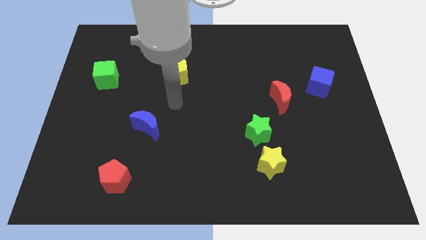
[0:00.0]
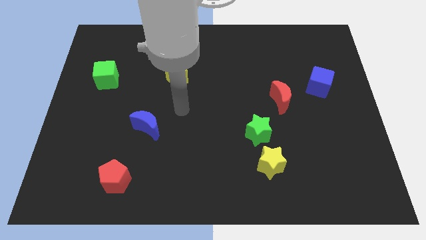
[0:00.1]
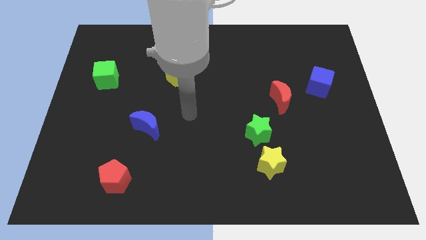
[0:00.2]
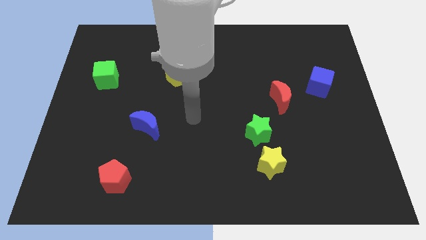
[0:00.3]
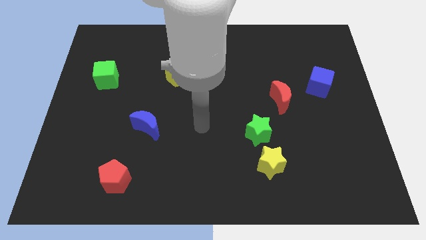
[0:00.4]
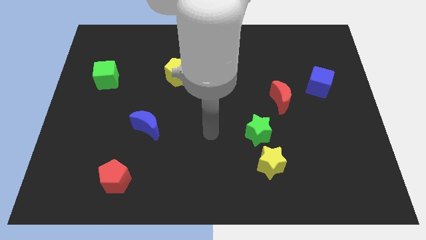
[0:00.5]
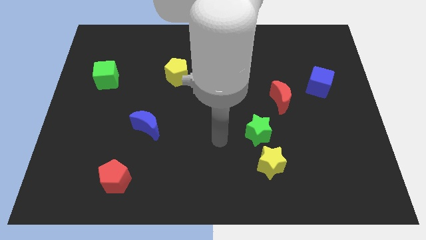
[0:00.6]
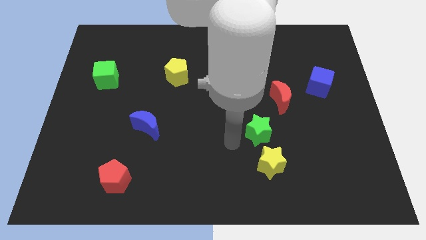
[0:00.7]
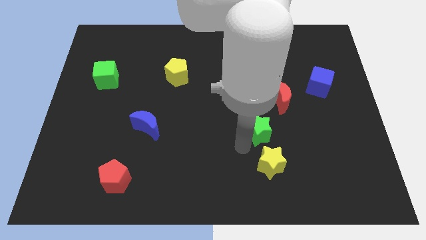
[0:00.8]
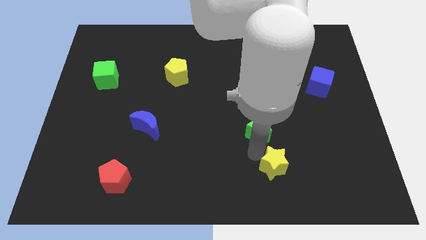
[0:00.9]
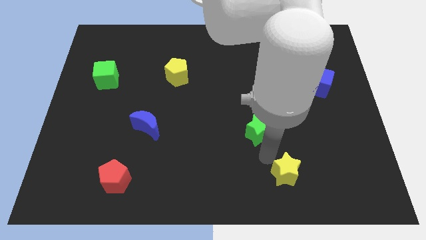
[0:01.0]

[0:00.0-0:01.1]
separate the green star from the yellow star

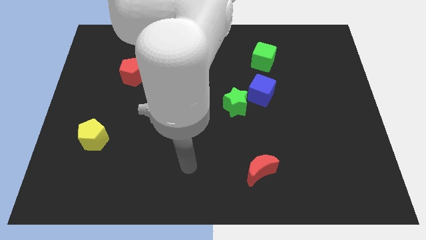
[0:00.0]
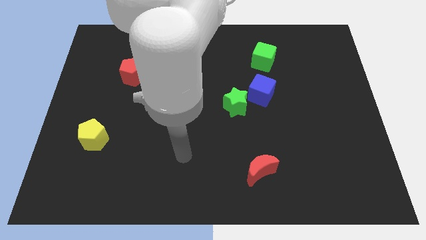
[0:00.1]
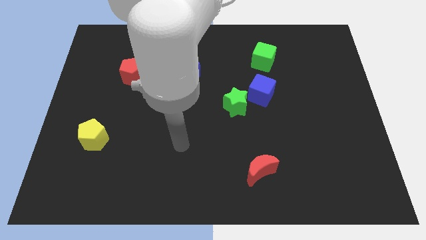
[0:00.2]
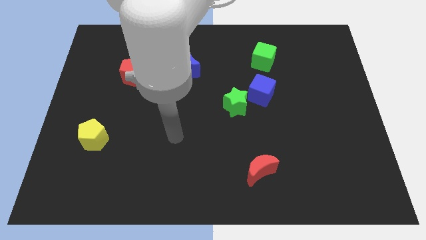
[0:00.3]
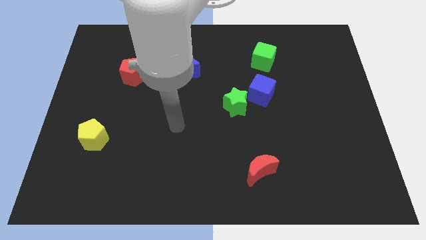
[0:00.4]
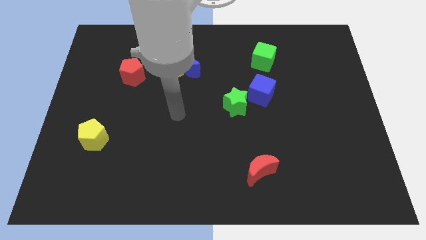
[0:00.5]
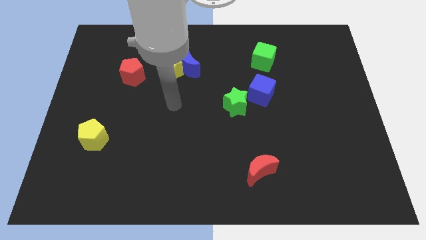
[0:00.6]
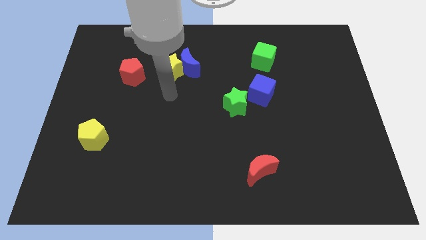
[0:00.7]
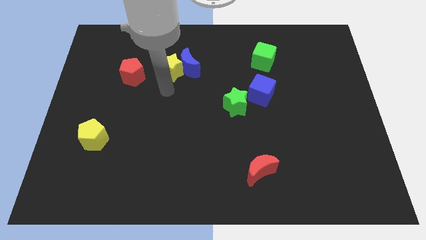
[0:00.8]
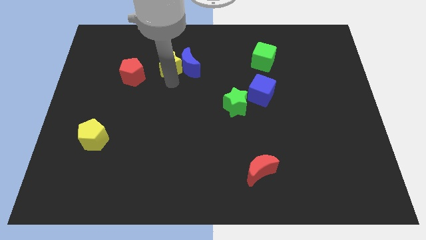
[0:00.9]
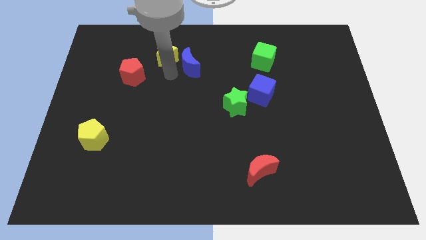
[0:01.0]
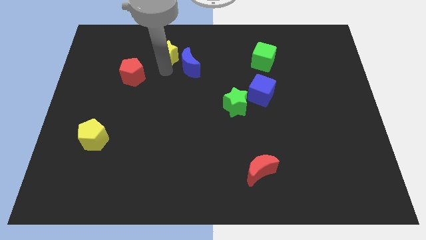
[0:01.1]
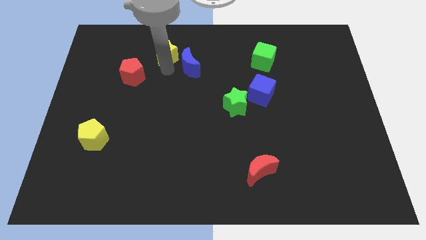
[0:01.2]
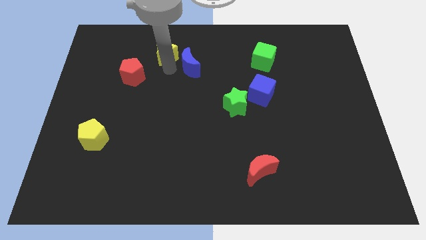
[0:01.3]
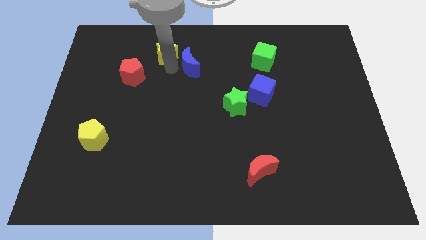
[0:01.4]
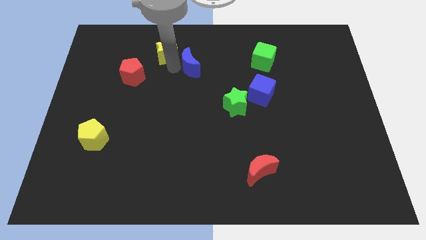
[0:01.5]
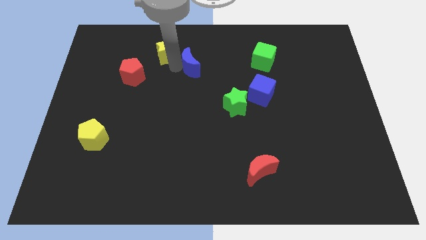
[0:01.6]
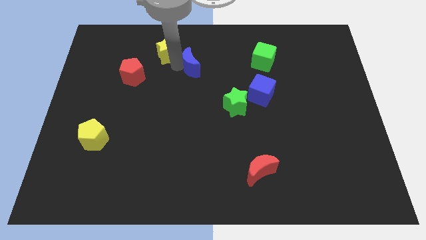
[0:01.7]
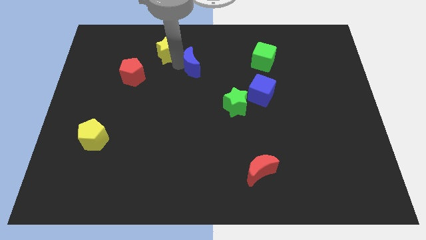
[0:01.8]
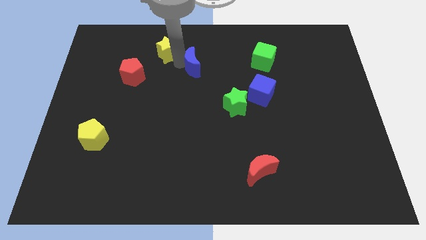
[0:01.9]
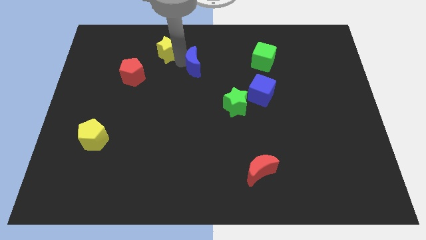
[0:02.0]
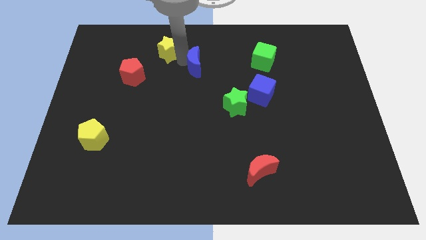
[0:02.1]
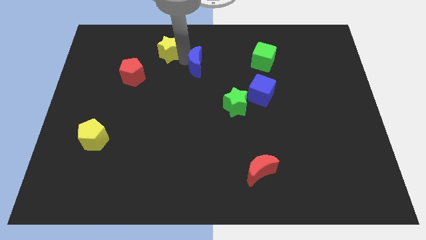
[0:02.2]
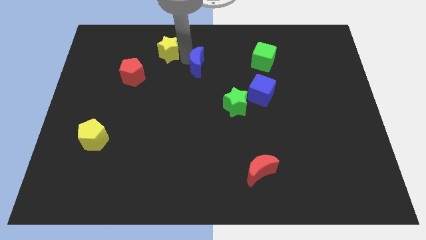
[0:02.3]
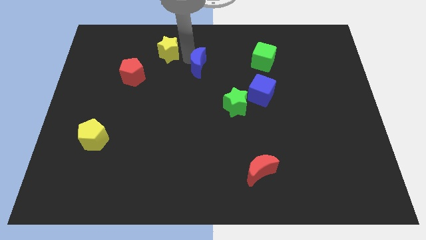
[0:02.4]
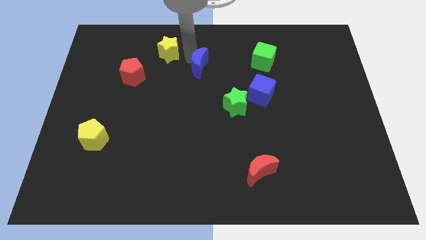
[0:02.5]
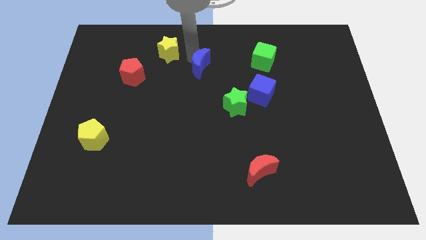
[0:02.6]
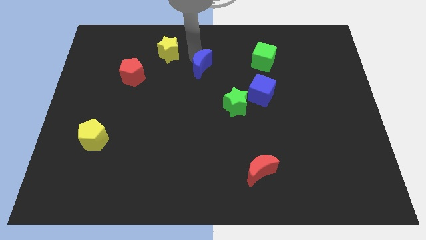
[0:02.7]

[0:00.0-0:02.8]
pull the blue moon apart from the yellow star

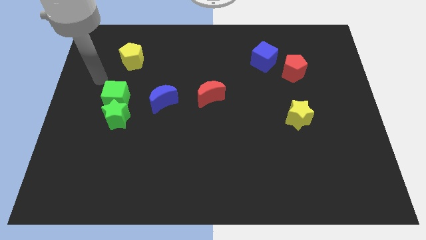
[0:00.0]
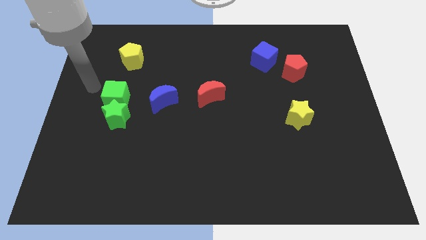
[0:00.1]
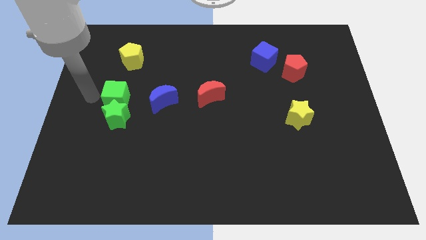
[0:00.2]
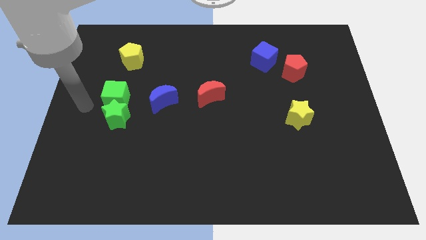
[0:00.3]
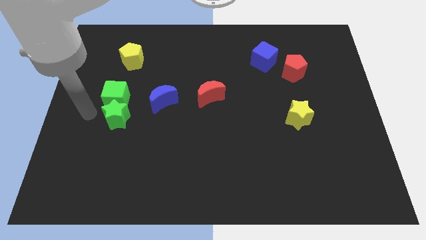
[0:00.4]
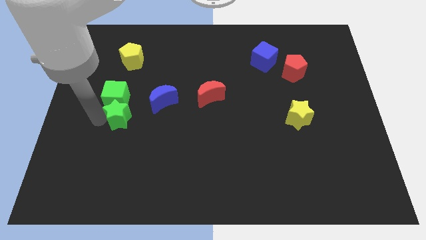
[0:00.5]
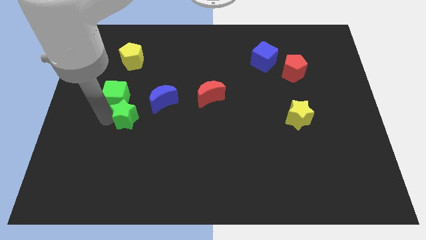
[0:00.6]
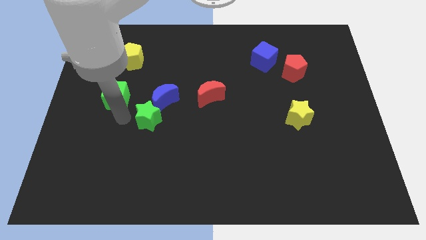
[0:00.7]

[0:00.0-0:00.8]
pull the green cube apart from the green star

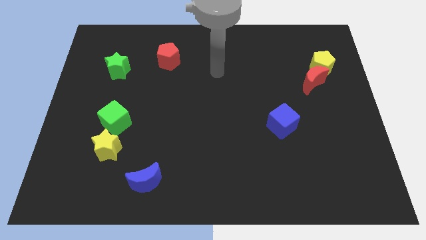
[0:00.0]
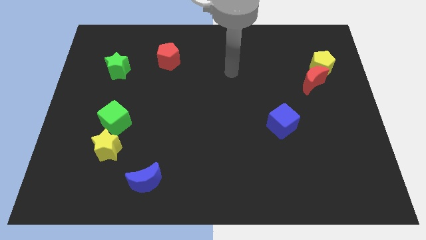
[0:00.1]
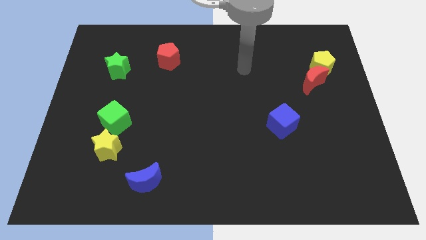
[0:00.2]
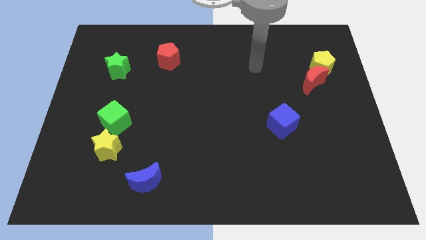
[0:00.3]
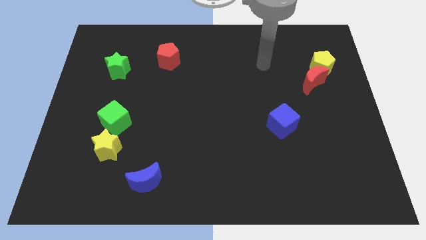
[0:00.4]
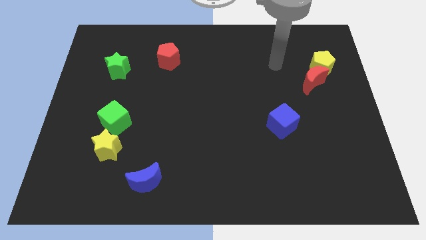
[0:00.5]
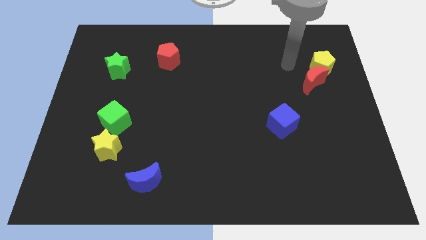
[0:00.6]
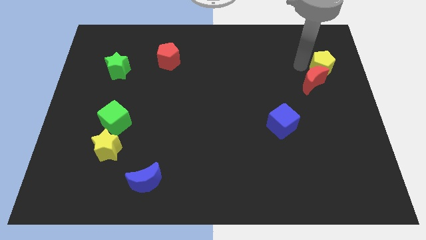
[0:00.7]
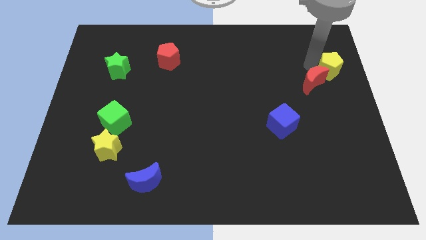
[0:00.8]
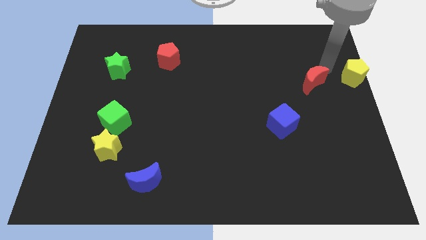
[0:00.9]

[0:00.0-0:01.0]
separate the red moon from the yellow pentagon

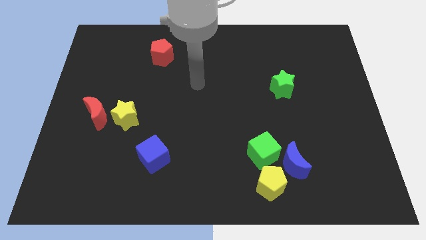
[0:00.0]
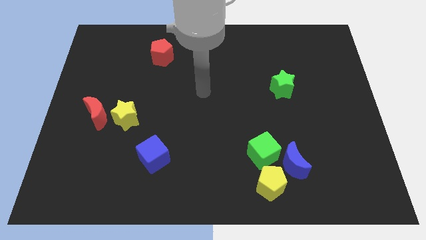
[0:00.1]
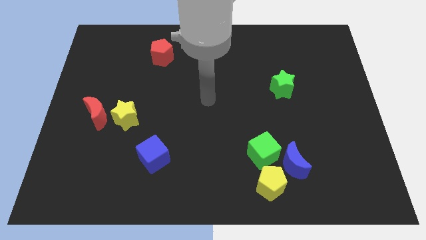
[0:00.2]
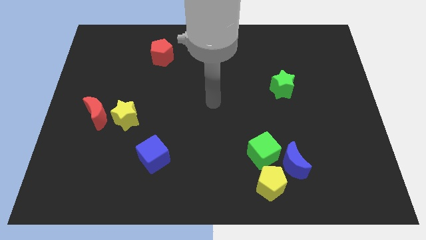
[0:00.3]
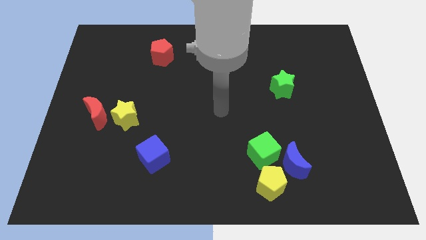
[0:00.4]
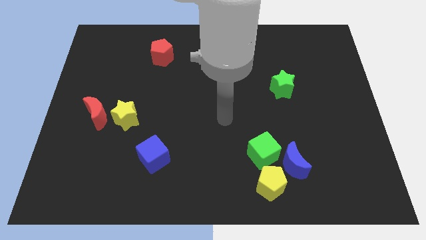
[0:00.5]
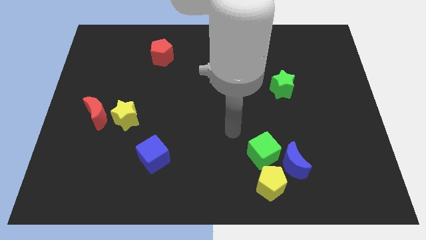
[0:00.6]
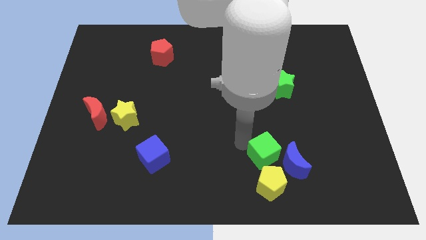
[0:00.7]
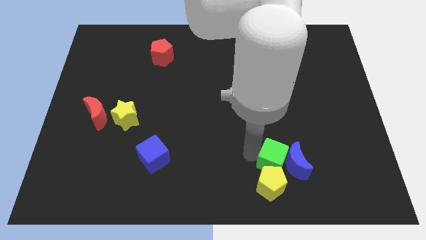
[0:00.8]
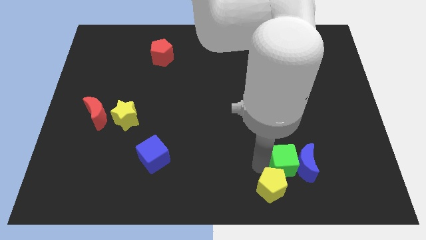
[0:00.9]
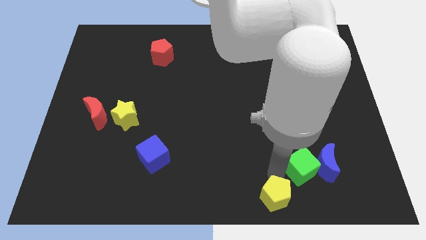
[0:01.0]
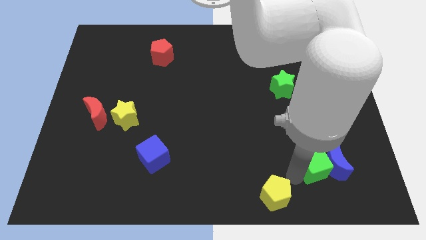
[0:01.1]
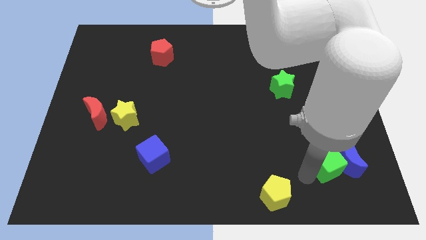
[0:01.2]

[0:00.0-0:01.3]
pull the blue moon apart from the green cube and yellow pentagon

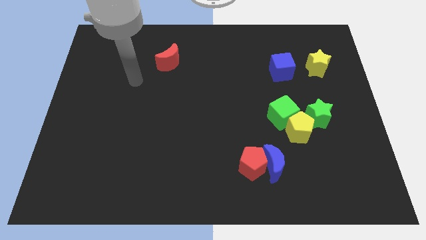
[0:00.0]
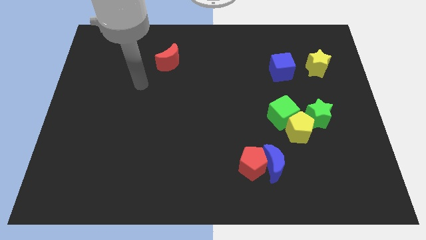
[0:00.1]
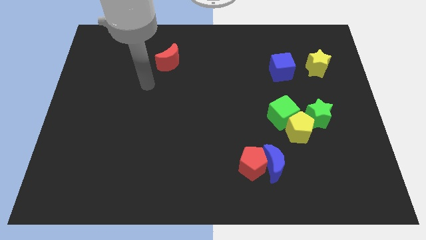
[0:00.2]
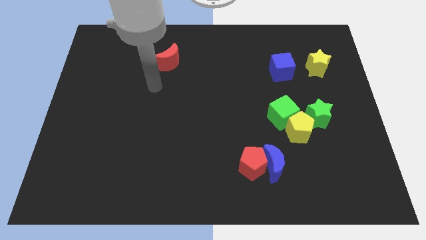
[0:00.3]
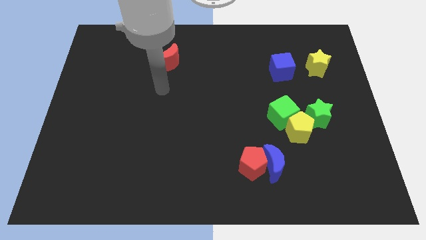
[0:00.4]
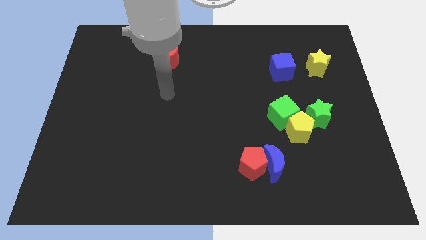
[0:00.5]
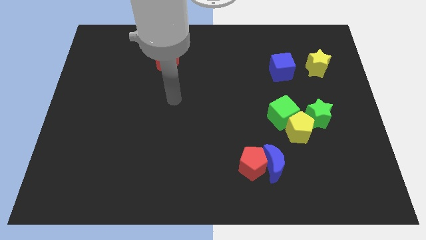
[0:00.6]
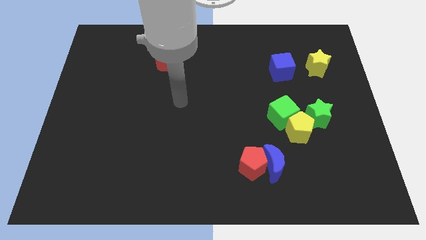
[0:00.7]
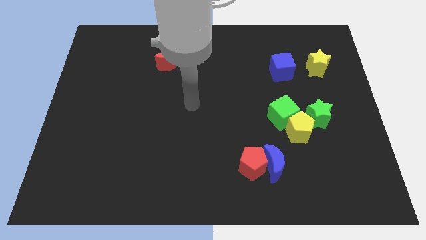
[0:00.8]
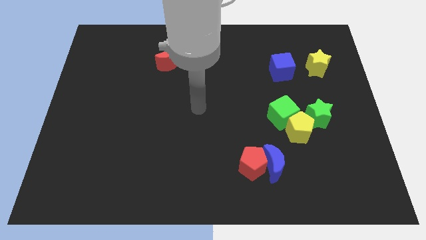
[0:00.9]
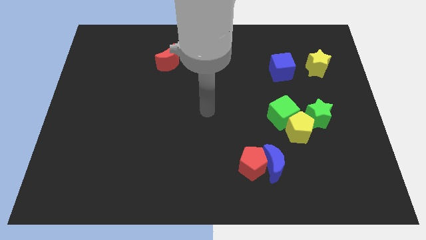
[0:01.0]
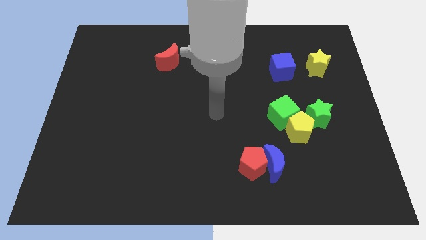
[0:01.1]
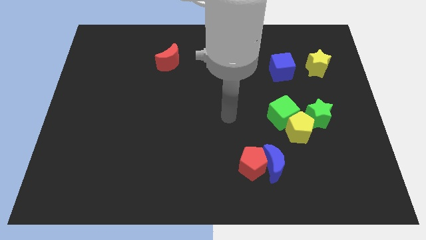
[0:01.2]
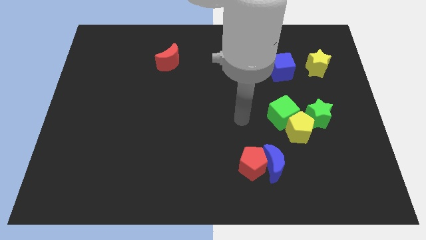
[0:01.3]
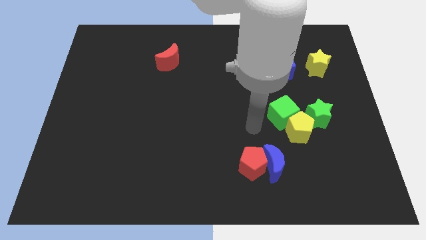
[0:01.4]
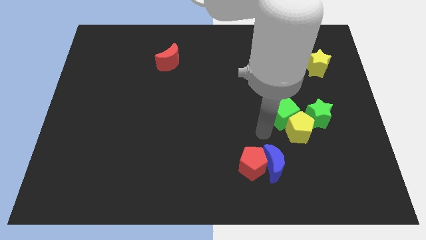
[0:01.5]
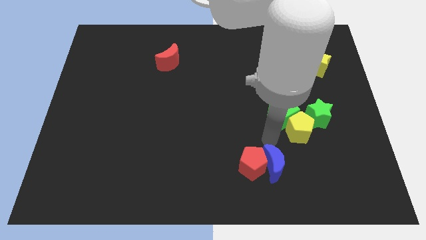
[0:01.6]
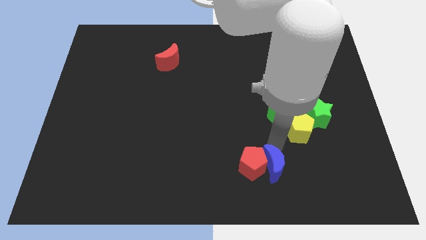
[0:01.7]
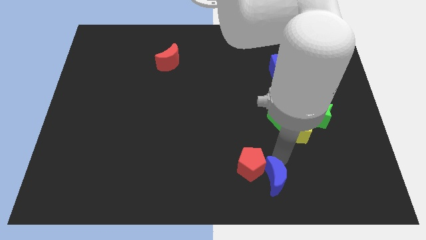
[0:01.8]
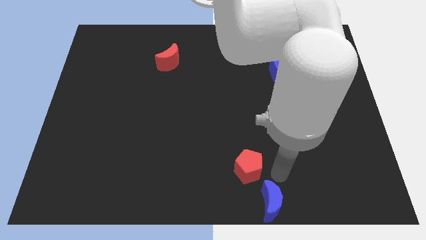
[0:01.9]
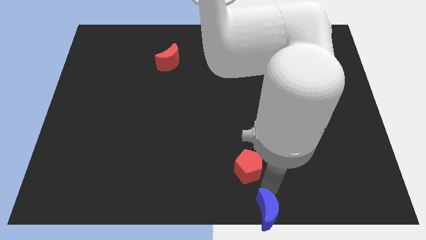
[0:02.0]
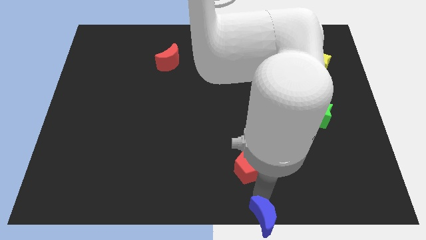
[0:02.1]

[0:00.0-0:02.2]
separate the red pentagon from the blue moon
